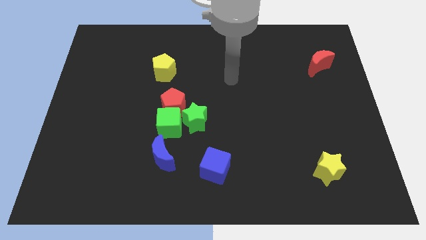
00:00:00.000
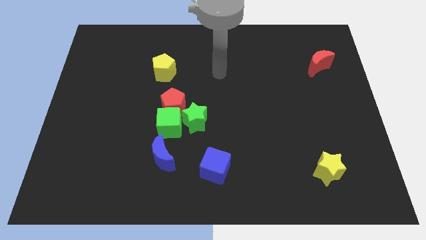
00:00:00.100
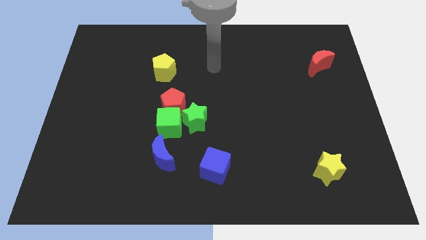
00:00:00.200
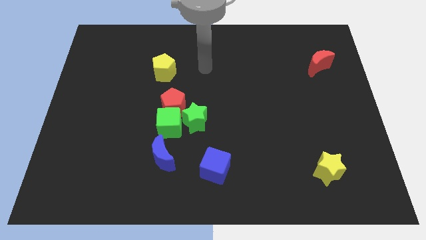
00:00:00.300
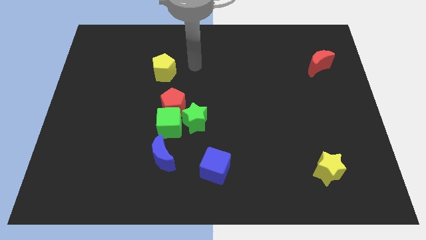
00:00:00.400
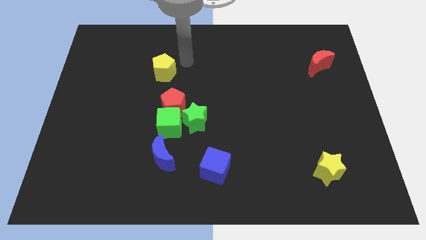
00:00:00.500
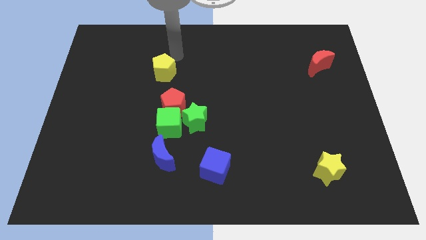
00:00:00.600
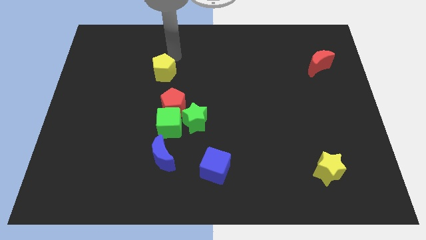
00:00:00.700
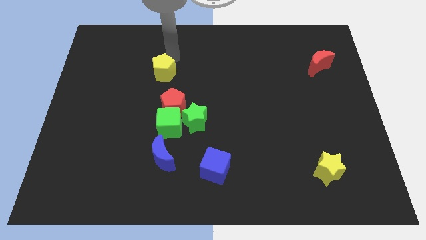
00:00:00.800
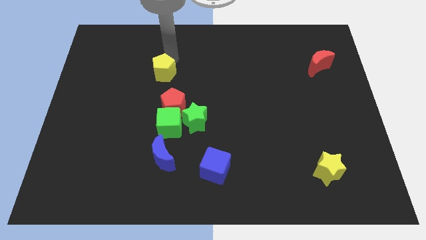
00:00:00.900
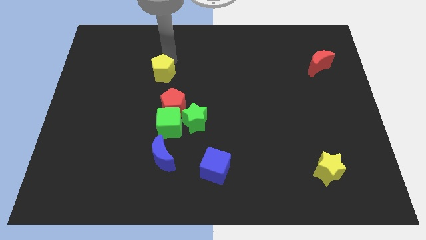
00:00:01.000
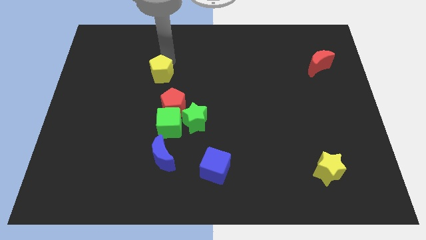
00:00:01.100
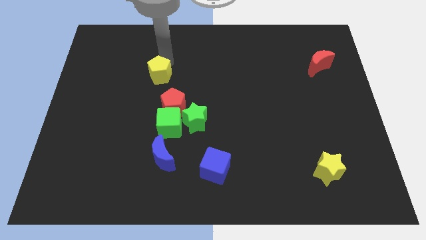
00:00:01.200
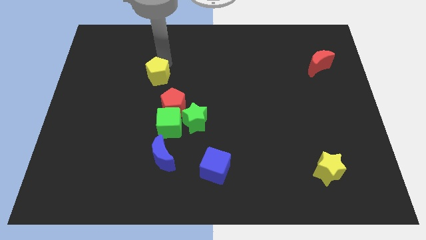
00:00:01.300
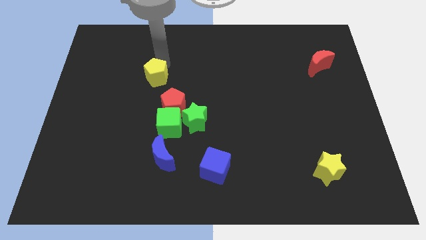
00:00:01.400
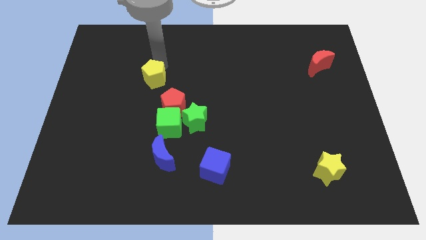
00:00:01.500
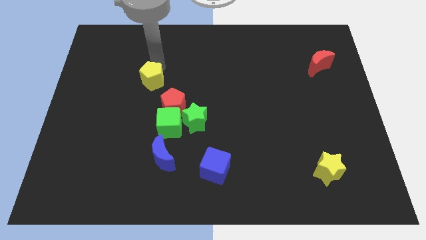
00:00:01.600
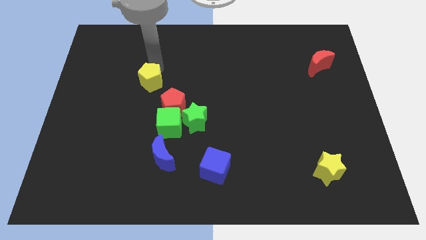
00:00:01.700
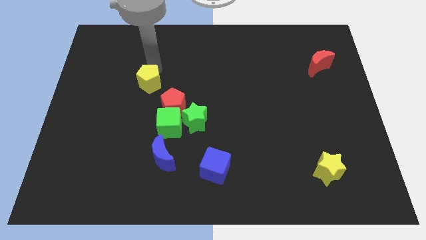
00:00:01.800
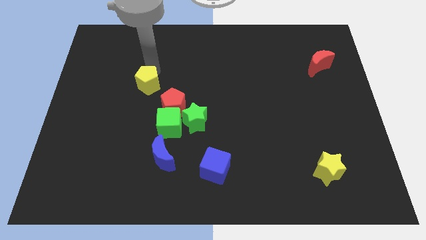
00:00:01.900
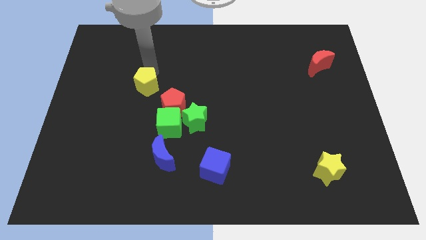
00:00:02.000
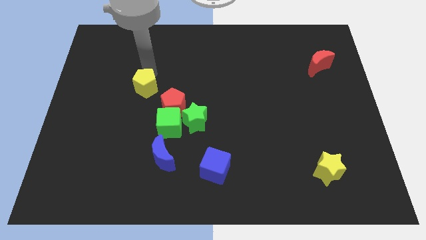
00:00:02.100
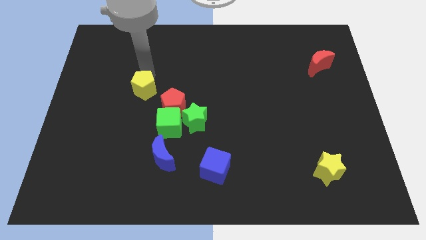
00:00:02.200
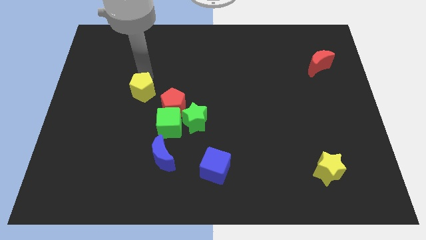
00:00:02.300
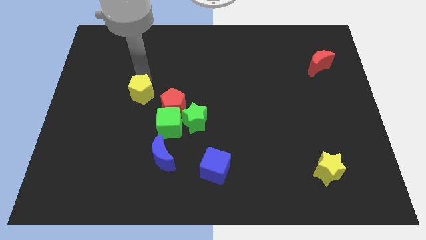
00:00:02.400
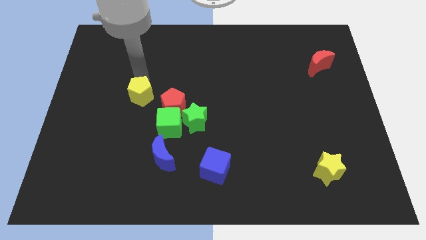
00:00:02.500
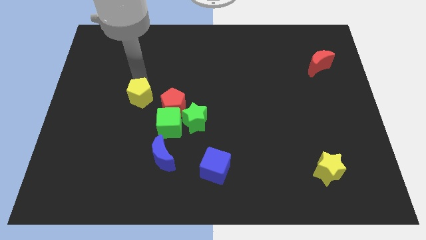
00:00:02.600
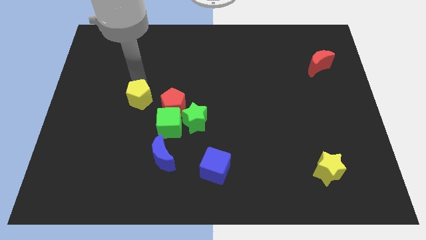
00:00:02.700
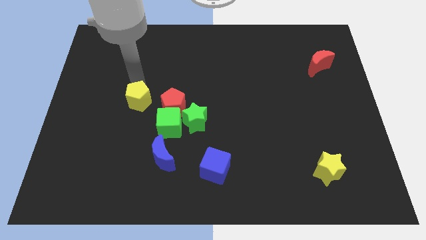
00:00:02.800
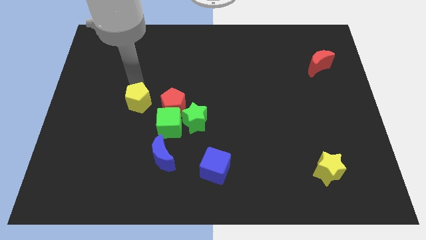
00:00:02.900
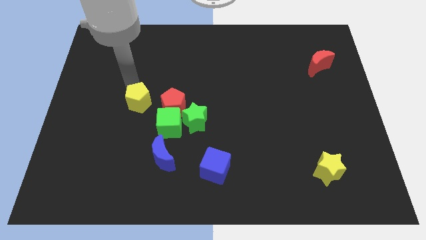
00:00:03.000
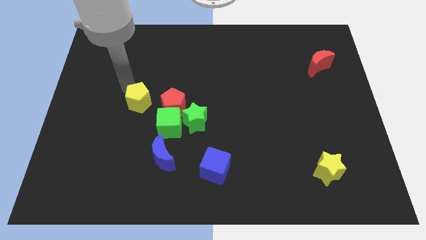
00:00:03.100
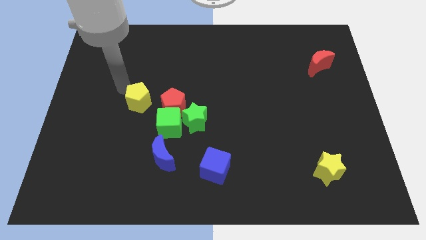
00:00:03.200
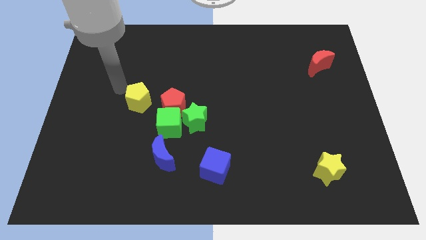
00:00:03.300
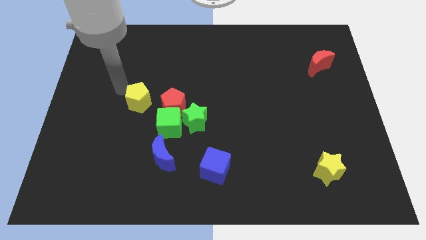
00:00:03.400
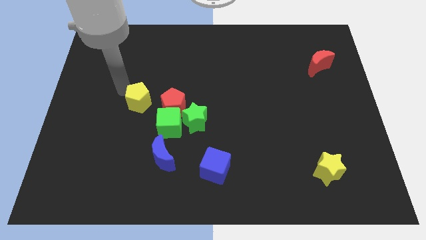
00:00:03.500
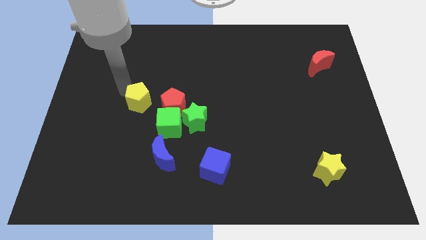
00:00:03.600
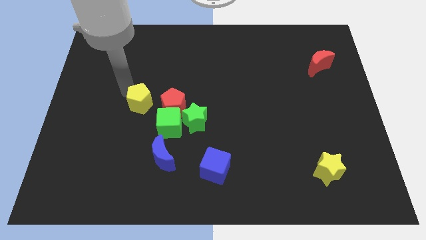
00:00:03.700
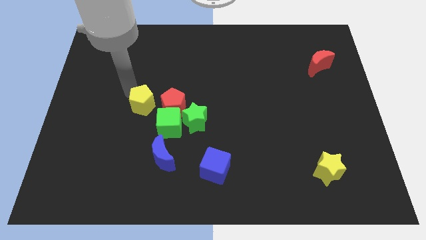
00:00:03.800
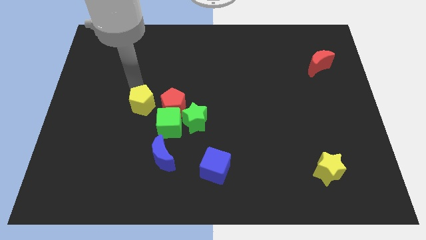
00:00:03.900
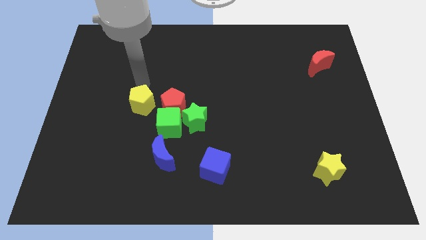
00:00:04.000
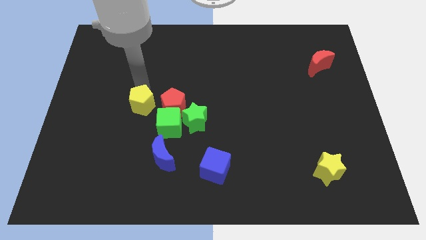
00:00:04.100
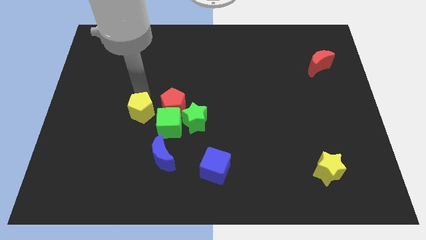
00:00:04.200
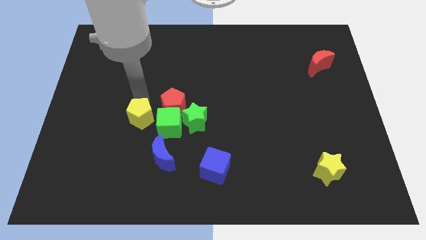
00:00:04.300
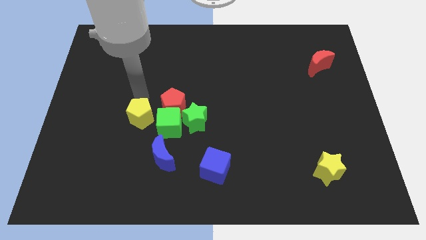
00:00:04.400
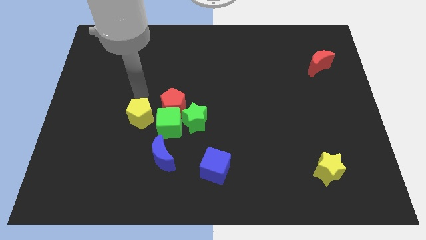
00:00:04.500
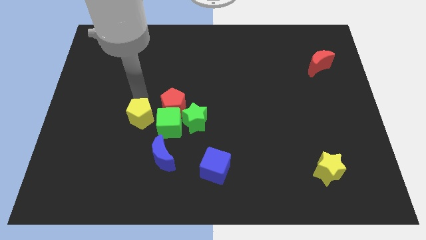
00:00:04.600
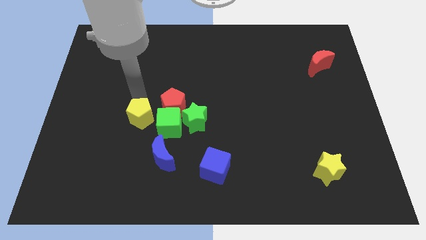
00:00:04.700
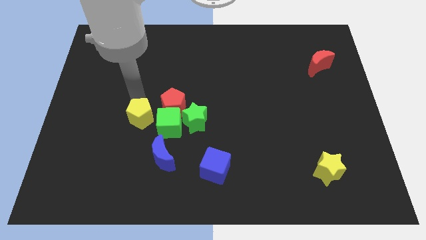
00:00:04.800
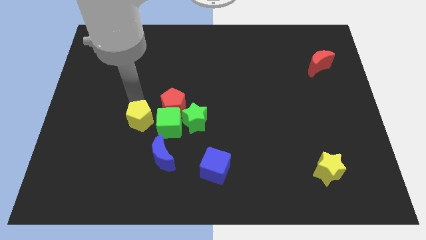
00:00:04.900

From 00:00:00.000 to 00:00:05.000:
slide the yellow pentagon diagonally up and to the left of the blue moon

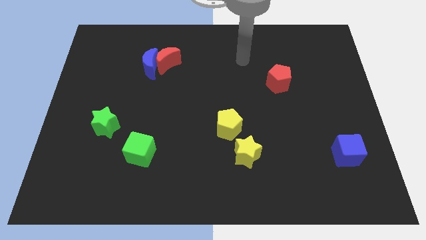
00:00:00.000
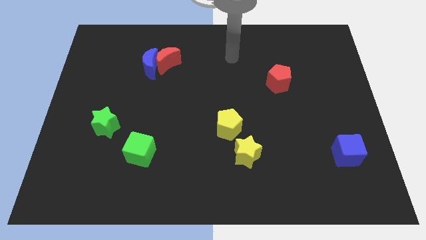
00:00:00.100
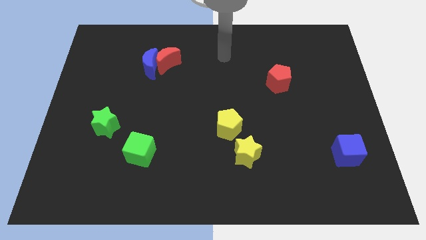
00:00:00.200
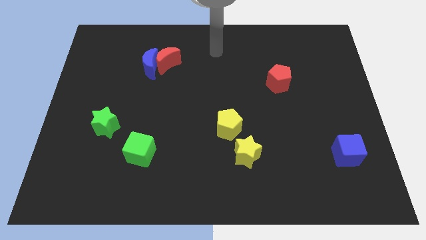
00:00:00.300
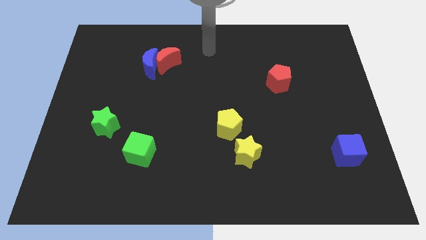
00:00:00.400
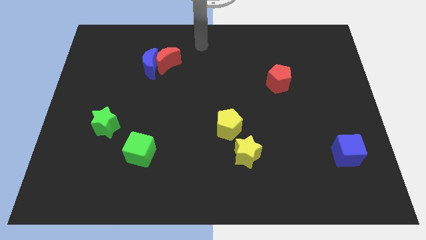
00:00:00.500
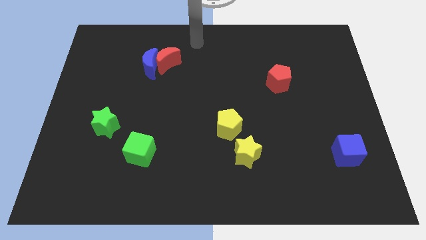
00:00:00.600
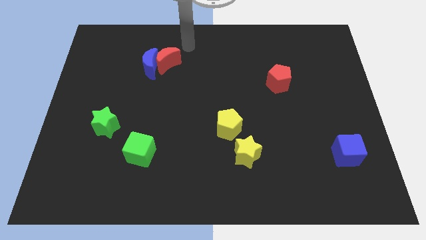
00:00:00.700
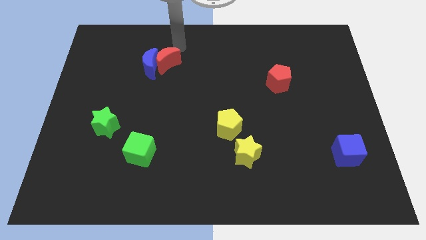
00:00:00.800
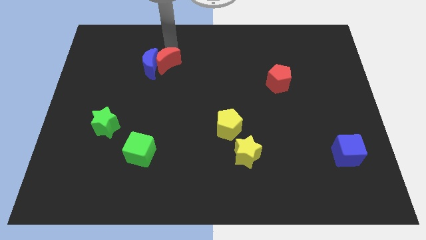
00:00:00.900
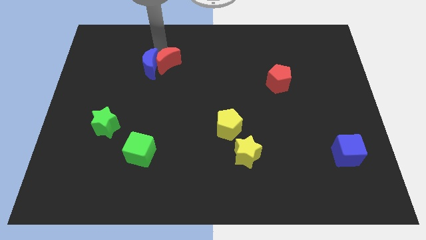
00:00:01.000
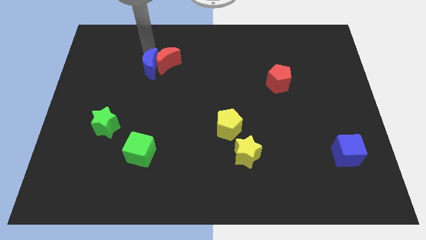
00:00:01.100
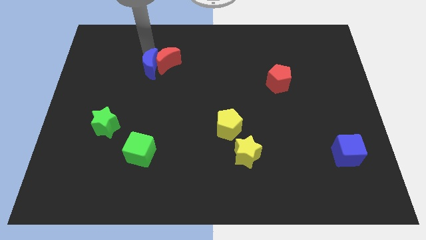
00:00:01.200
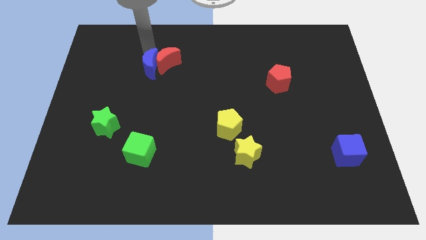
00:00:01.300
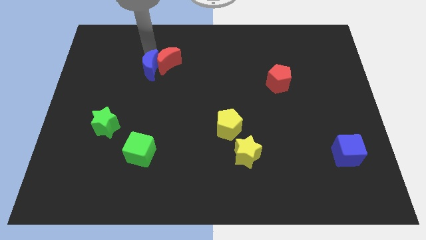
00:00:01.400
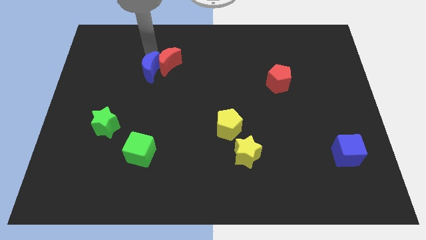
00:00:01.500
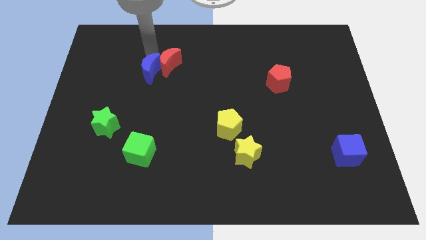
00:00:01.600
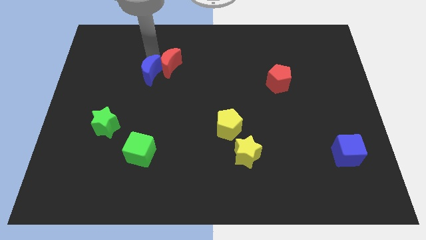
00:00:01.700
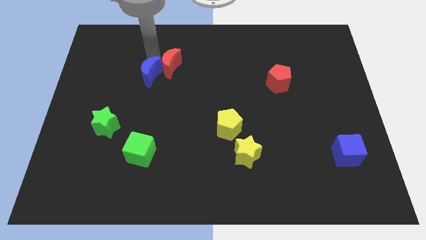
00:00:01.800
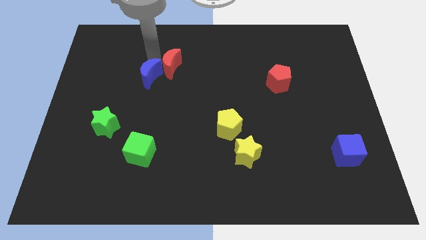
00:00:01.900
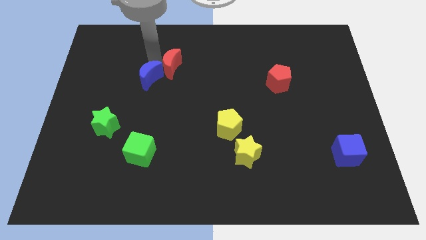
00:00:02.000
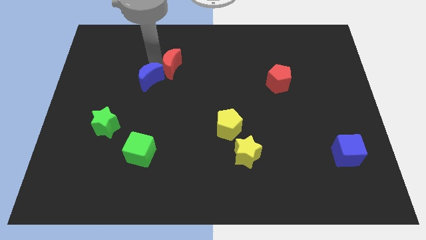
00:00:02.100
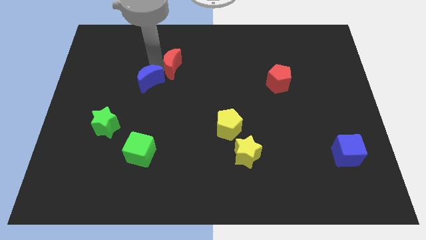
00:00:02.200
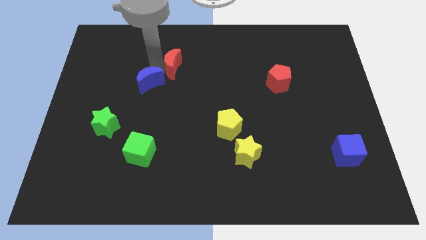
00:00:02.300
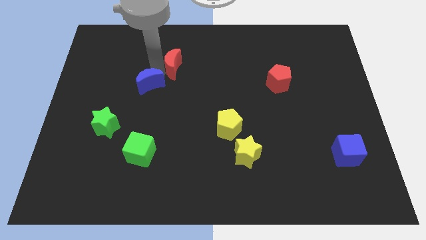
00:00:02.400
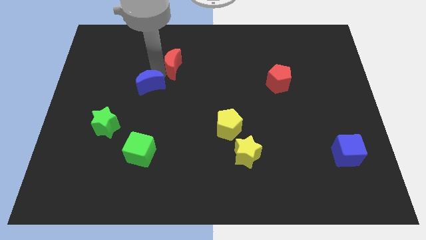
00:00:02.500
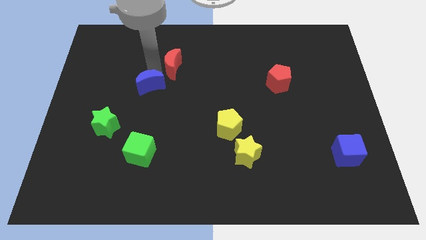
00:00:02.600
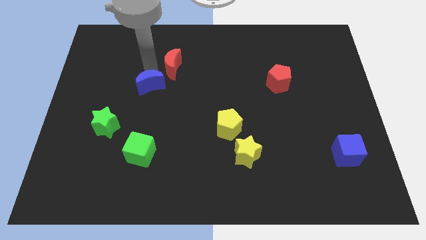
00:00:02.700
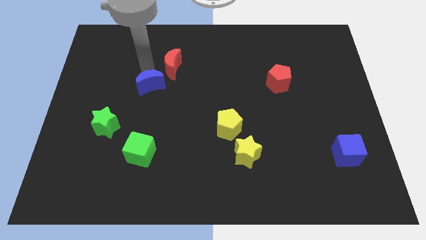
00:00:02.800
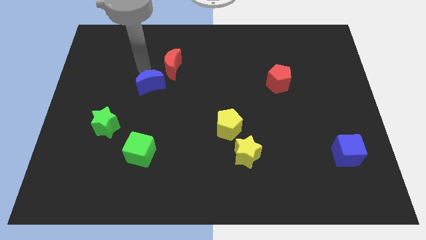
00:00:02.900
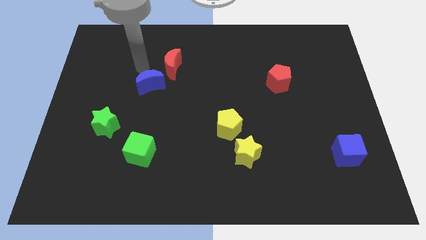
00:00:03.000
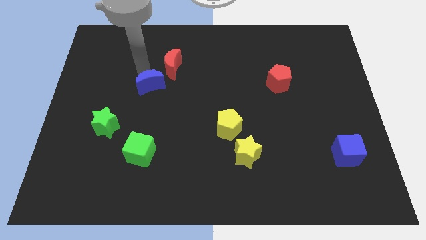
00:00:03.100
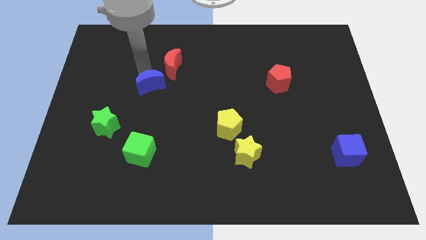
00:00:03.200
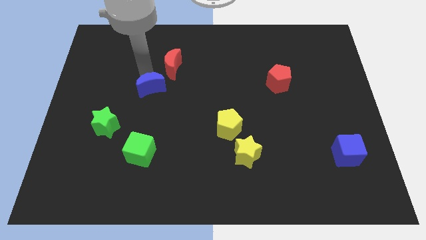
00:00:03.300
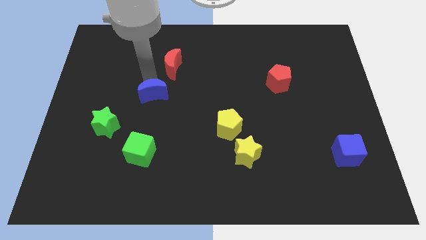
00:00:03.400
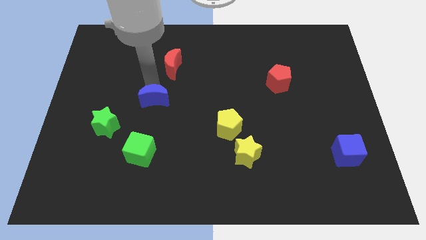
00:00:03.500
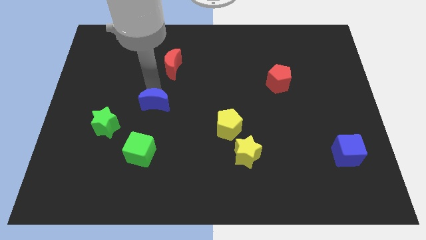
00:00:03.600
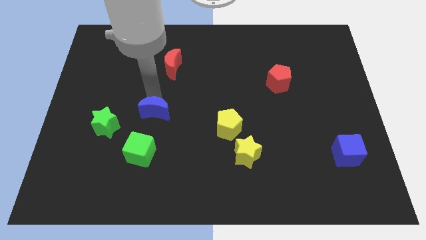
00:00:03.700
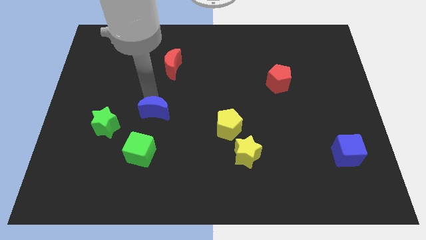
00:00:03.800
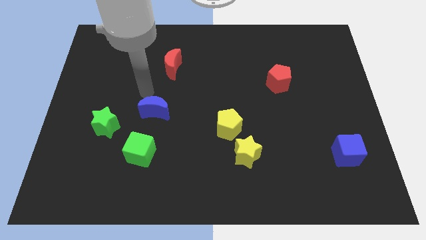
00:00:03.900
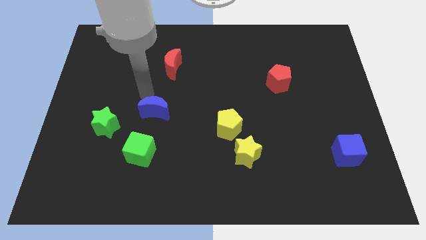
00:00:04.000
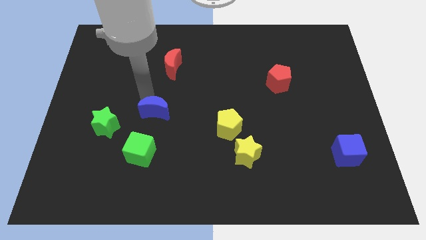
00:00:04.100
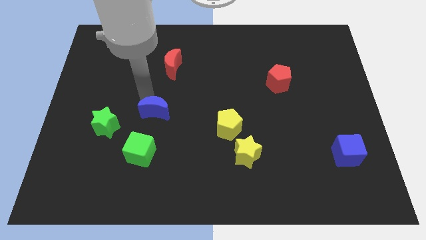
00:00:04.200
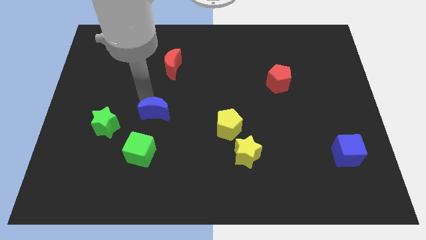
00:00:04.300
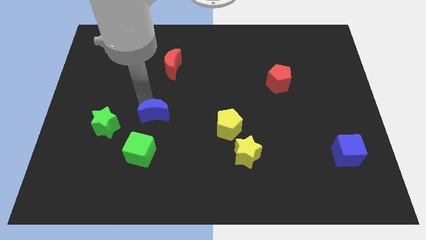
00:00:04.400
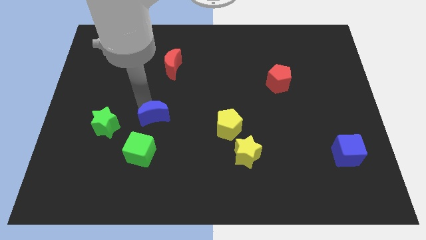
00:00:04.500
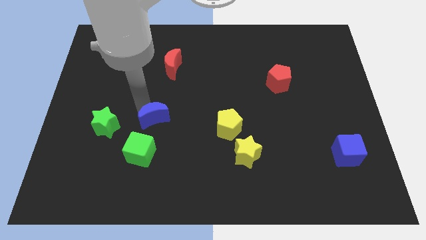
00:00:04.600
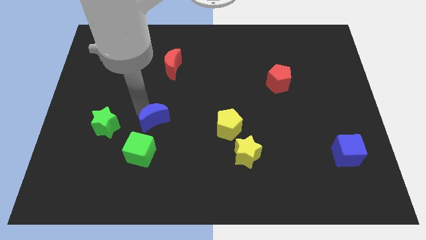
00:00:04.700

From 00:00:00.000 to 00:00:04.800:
push the blue moon to the top right side of the green cube
